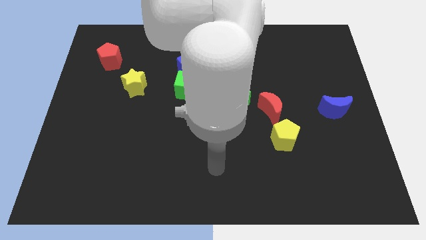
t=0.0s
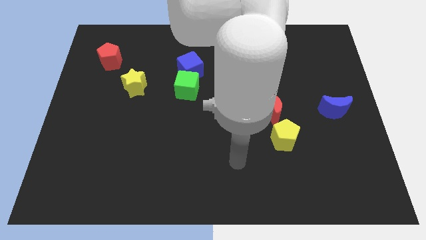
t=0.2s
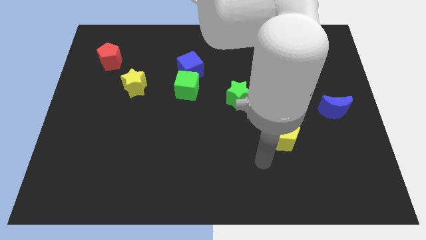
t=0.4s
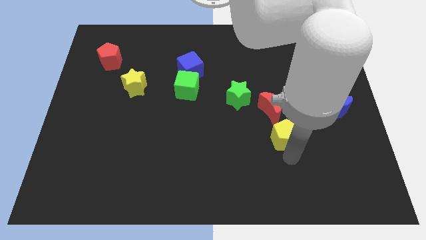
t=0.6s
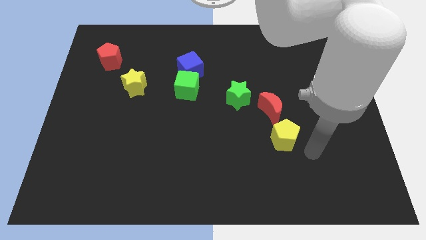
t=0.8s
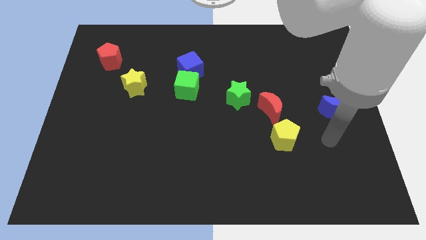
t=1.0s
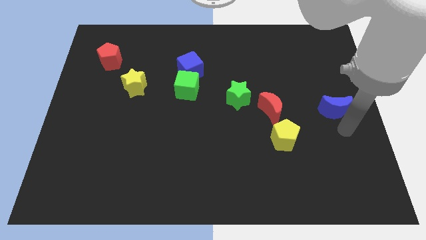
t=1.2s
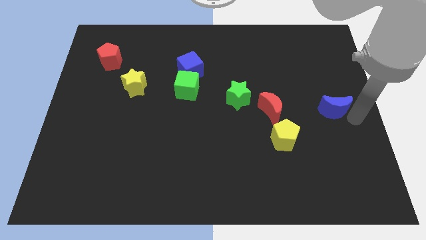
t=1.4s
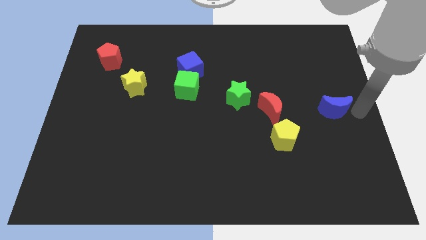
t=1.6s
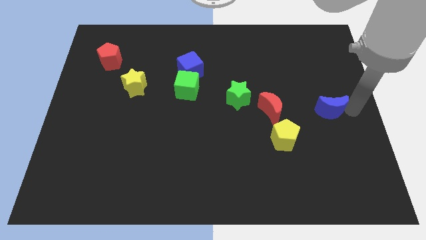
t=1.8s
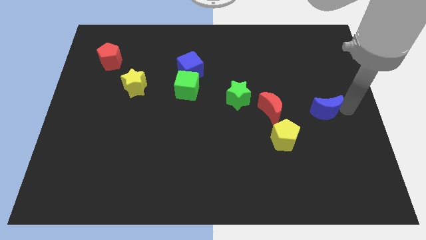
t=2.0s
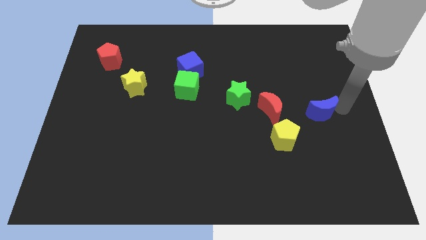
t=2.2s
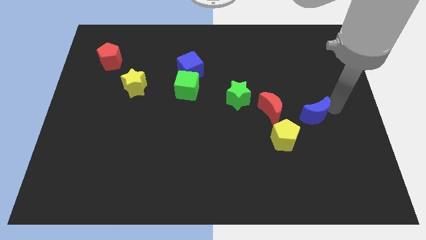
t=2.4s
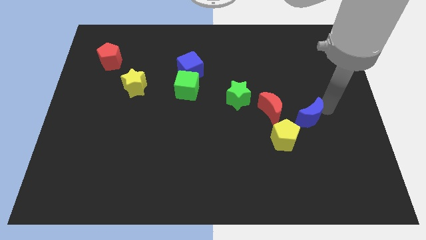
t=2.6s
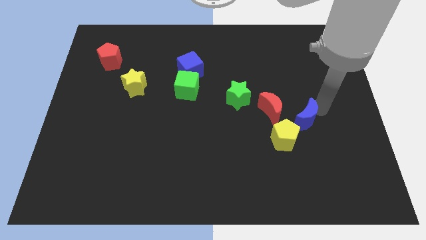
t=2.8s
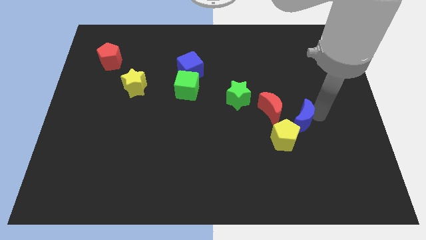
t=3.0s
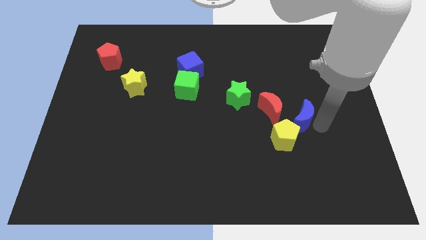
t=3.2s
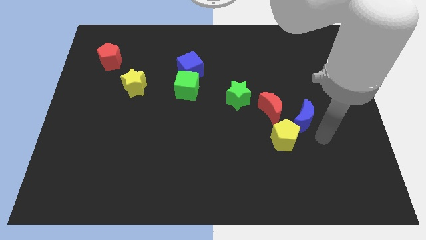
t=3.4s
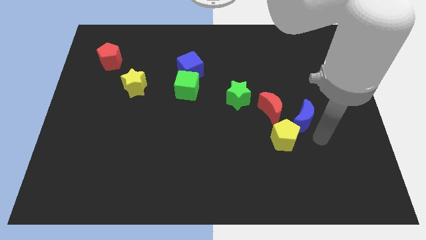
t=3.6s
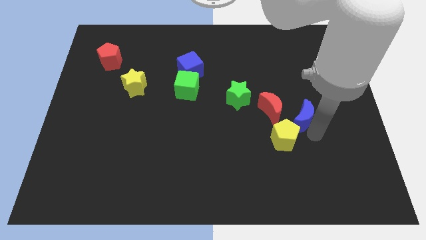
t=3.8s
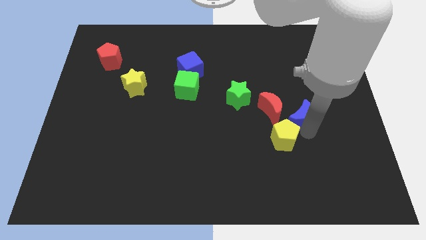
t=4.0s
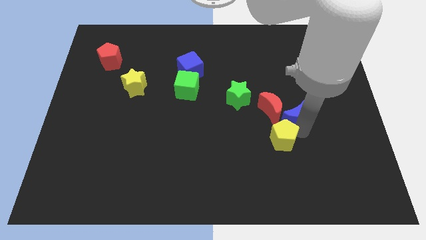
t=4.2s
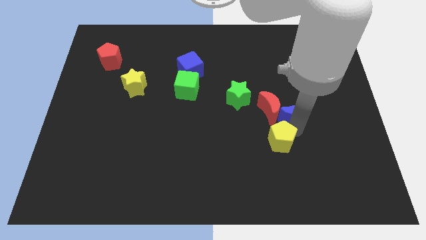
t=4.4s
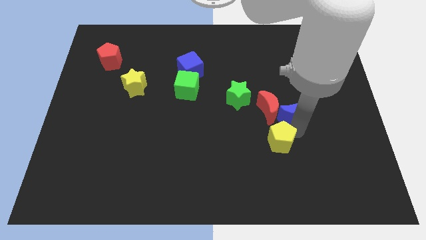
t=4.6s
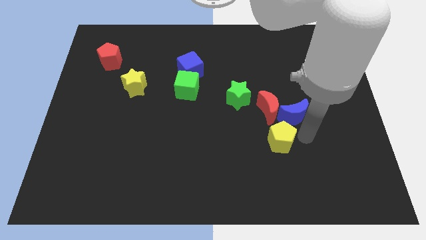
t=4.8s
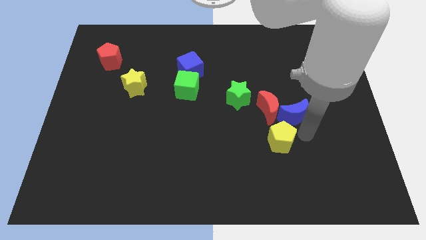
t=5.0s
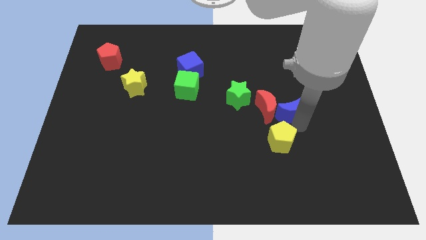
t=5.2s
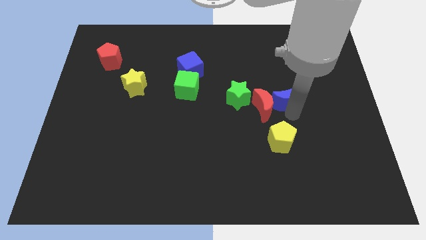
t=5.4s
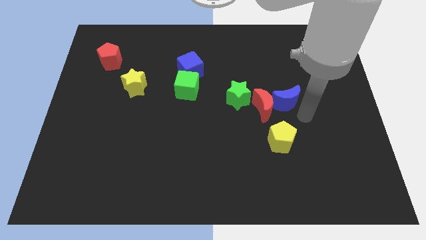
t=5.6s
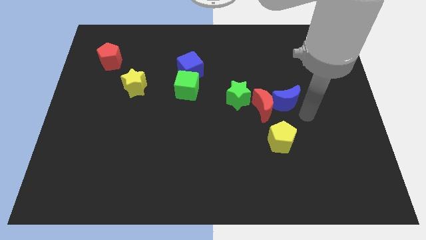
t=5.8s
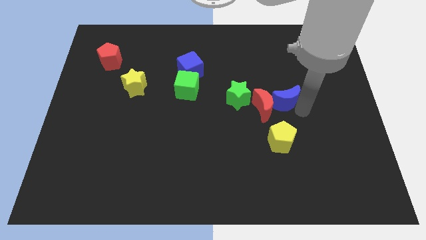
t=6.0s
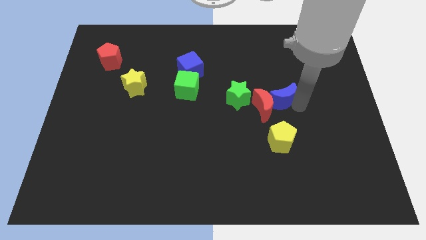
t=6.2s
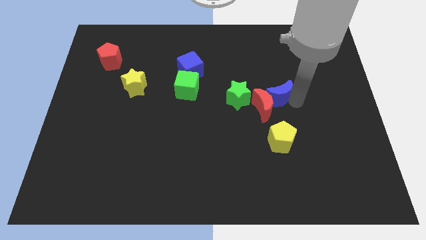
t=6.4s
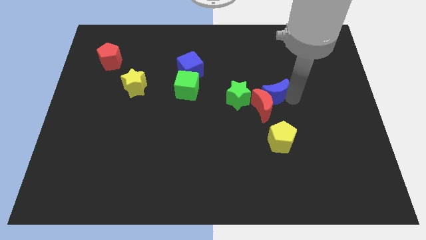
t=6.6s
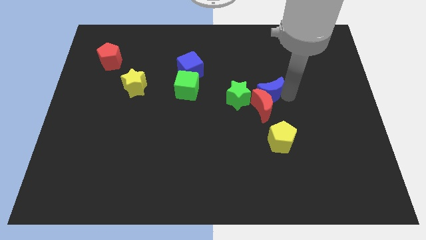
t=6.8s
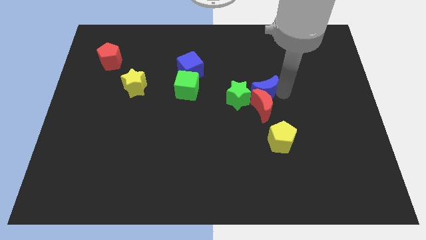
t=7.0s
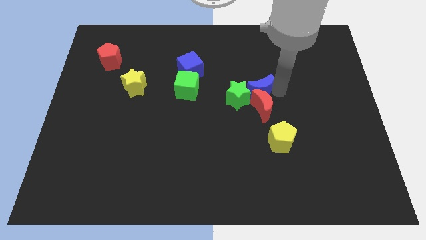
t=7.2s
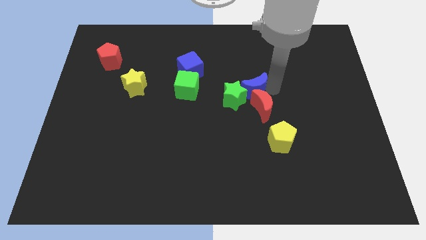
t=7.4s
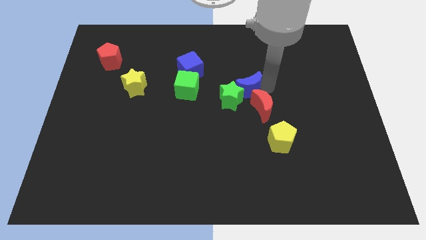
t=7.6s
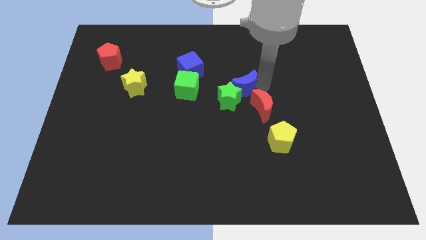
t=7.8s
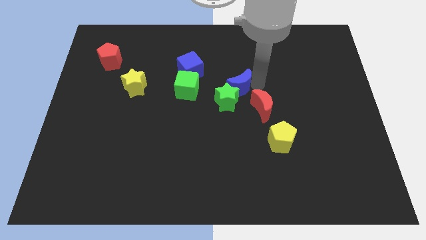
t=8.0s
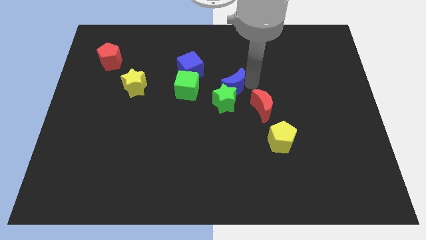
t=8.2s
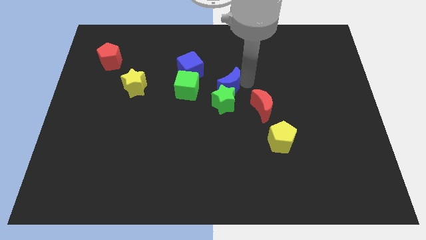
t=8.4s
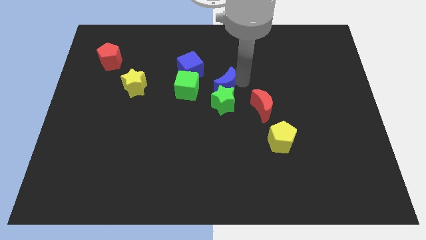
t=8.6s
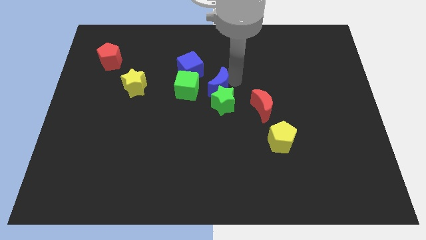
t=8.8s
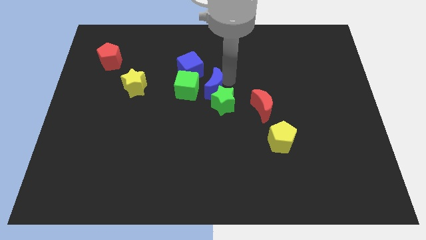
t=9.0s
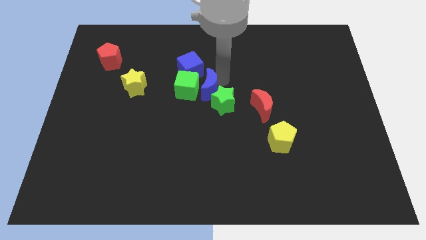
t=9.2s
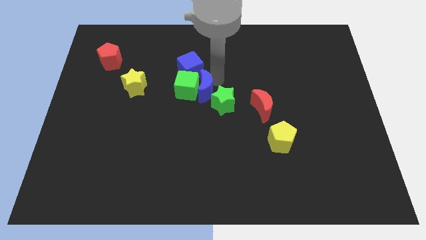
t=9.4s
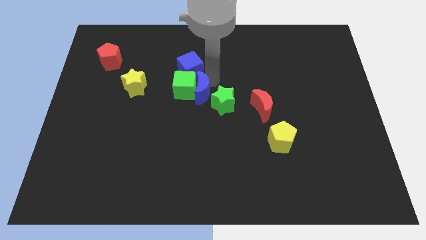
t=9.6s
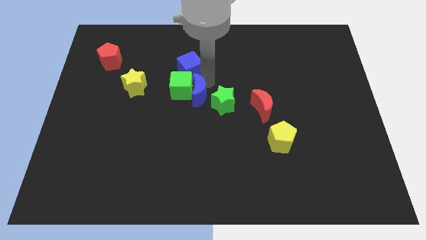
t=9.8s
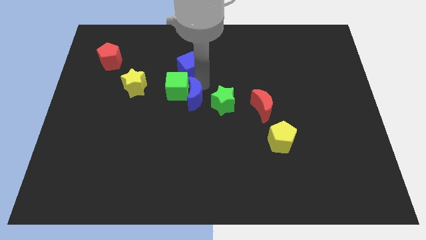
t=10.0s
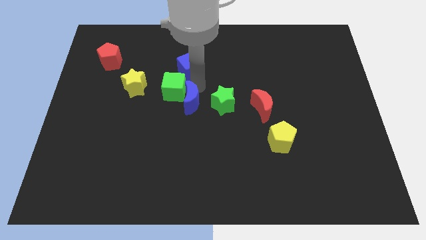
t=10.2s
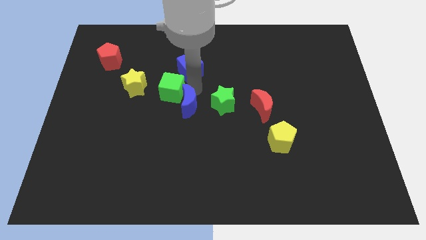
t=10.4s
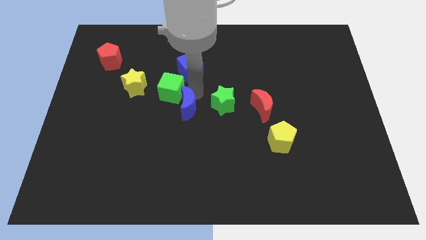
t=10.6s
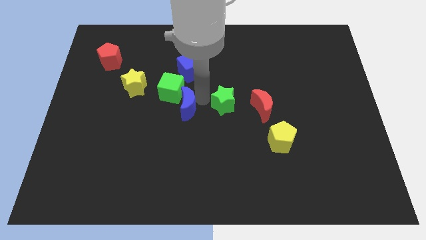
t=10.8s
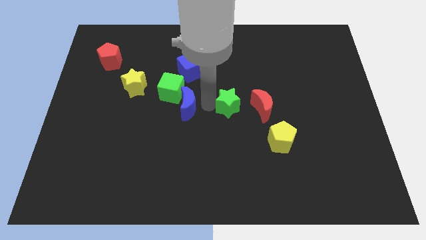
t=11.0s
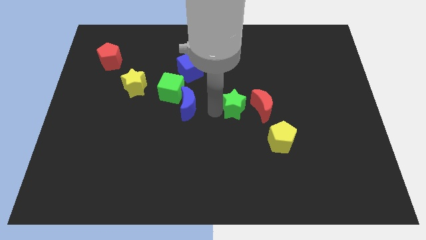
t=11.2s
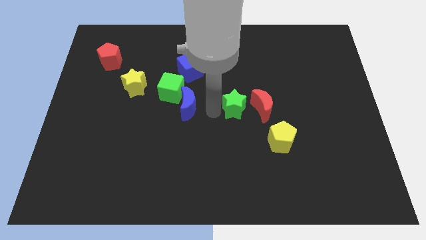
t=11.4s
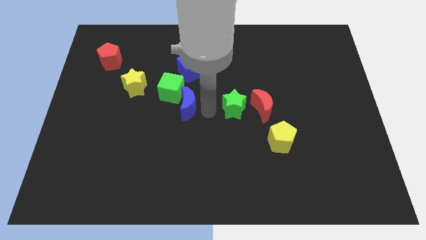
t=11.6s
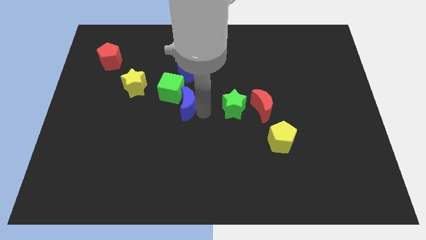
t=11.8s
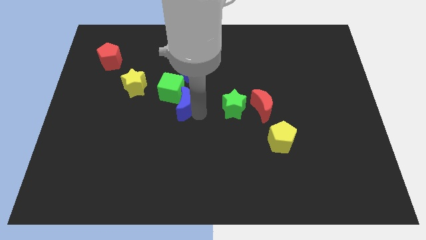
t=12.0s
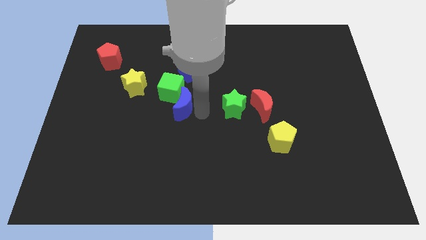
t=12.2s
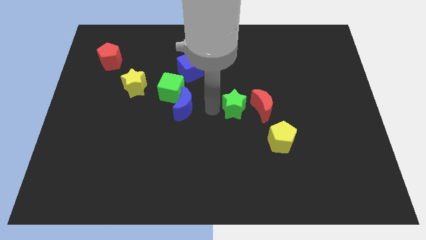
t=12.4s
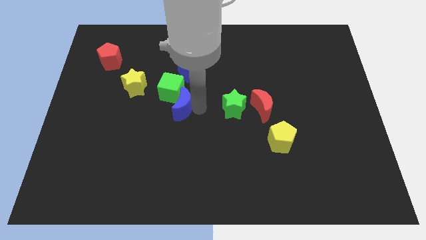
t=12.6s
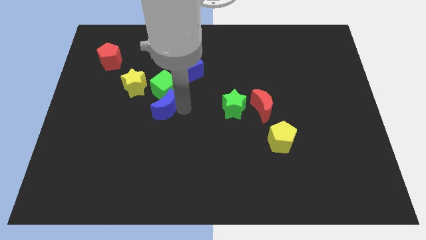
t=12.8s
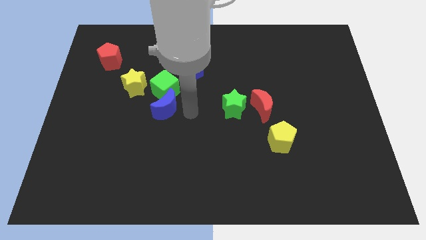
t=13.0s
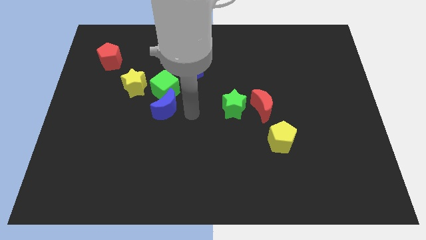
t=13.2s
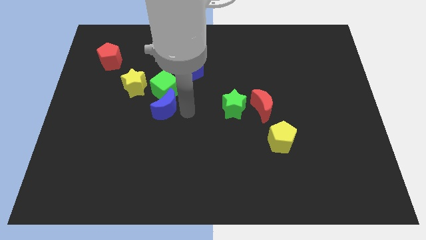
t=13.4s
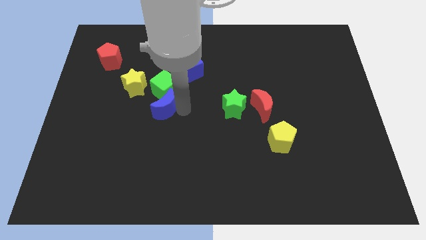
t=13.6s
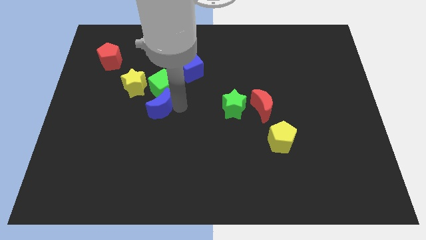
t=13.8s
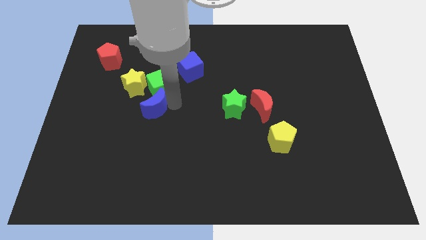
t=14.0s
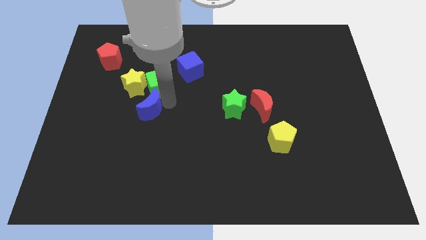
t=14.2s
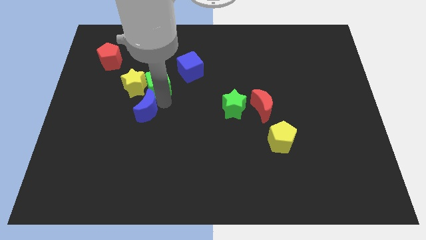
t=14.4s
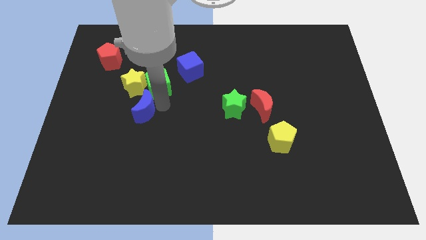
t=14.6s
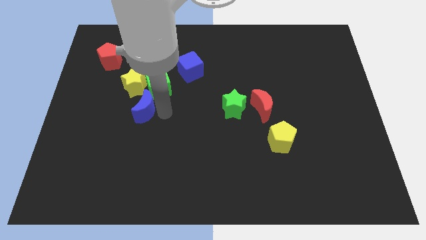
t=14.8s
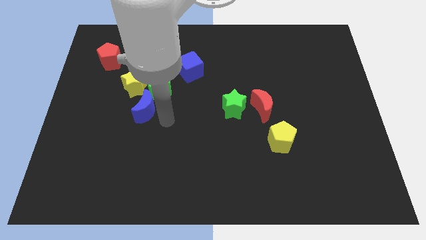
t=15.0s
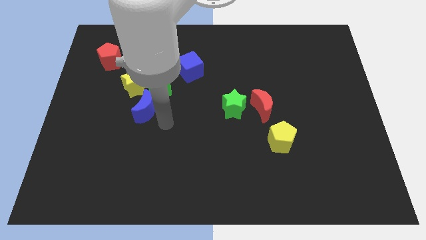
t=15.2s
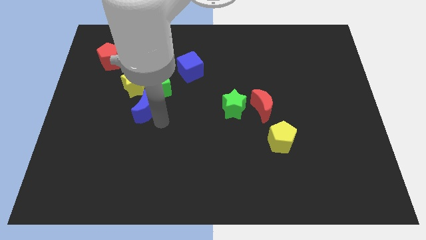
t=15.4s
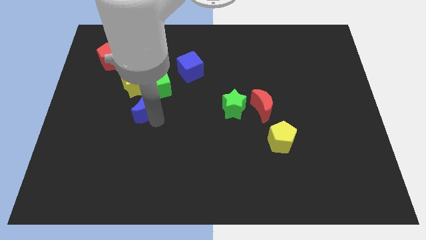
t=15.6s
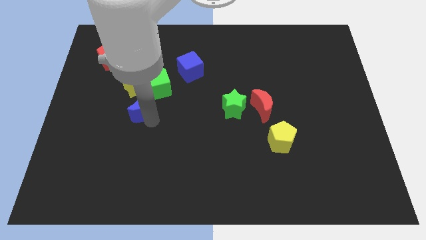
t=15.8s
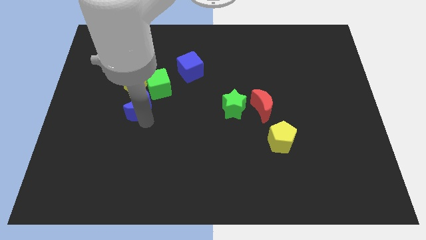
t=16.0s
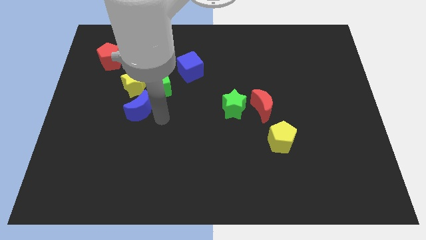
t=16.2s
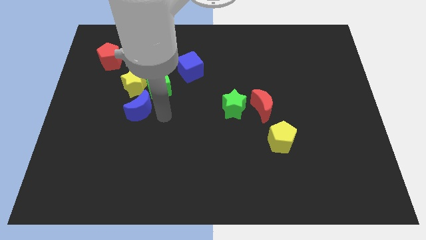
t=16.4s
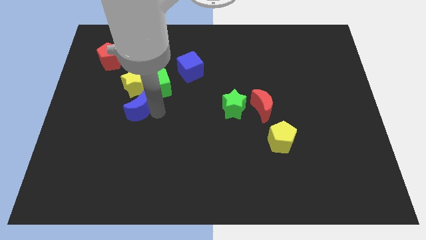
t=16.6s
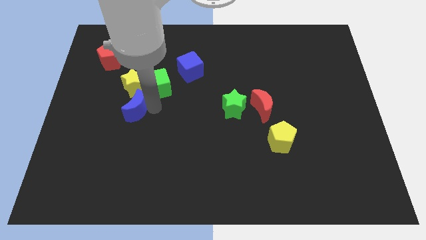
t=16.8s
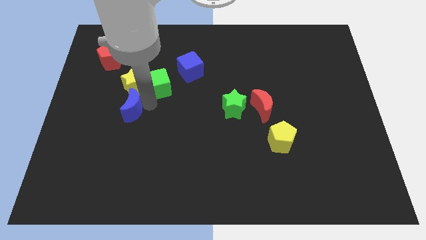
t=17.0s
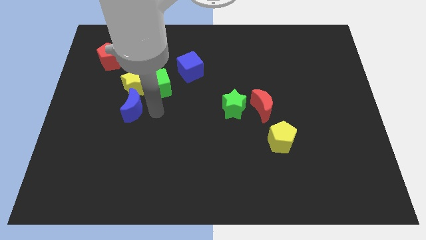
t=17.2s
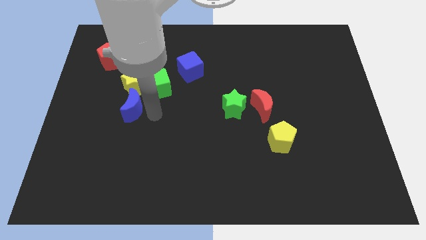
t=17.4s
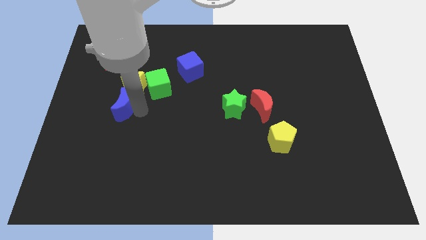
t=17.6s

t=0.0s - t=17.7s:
push the blue moon diagonally down and to the left of the yellow star
